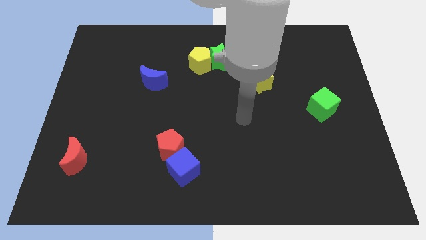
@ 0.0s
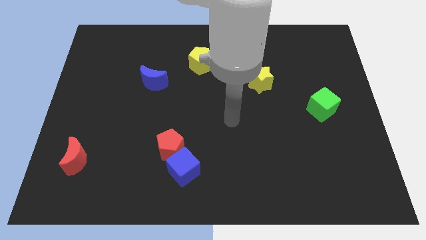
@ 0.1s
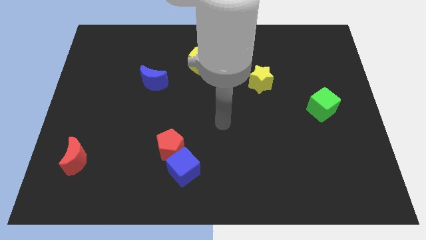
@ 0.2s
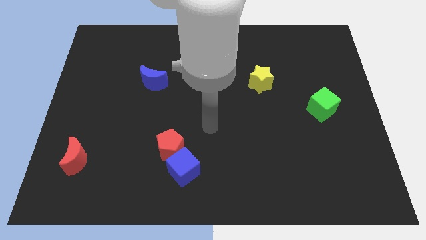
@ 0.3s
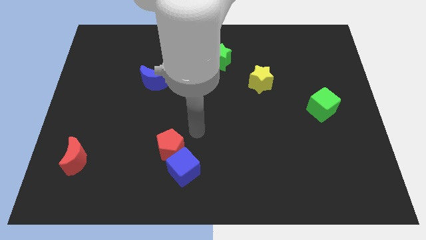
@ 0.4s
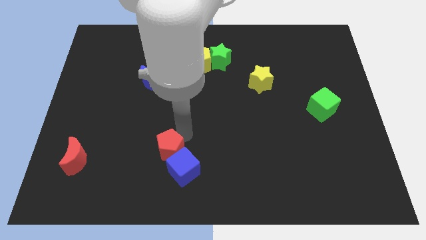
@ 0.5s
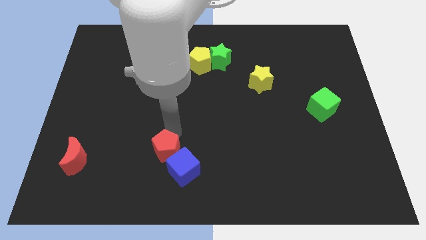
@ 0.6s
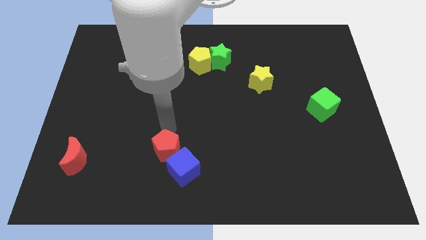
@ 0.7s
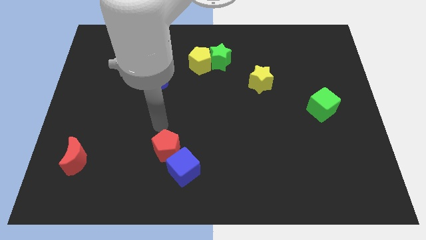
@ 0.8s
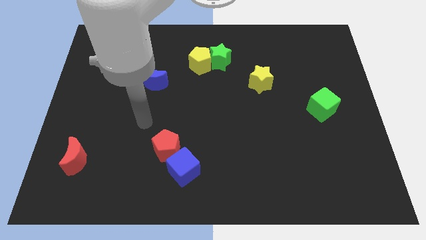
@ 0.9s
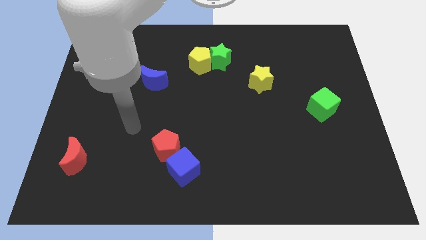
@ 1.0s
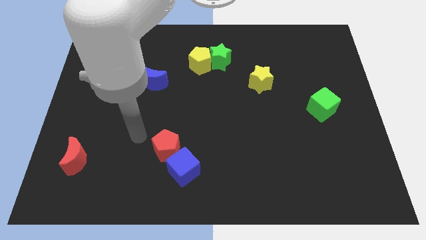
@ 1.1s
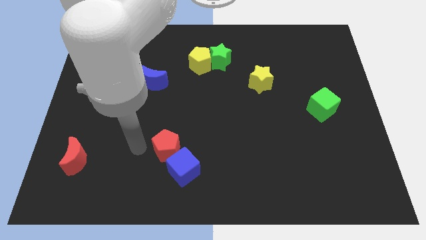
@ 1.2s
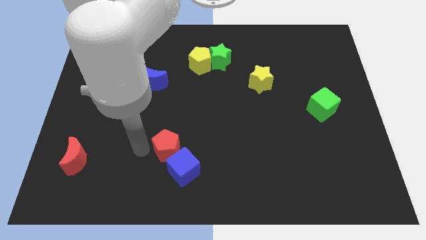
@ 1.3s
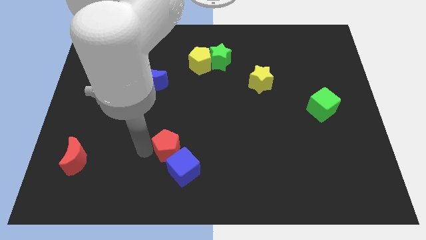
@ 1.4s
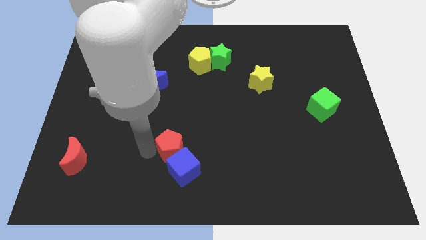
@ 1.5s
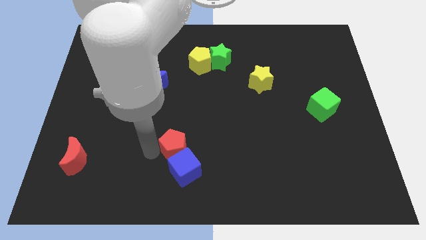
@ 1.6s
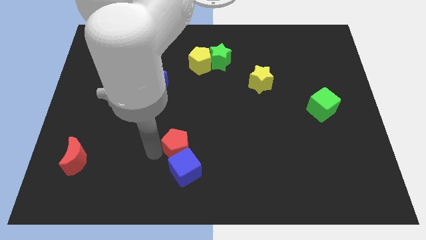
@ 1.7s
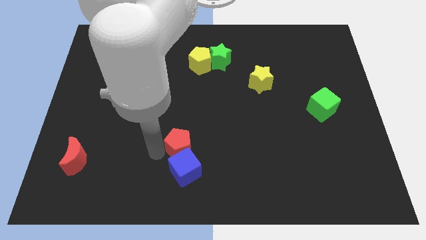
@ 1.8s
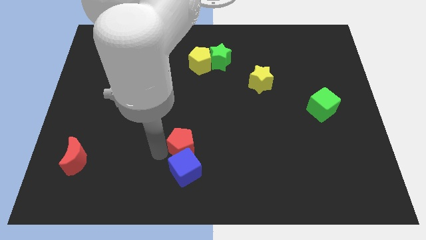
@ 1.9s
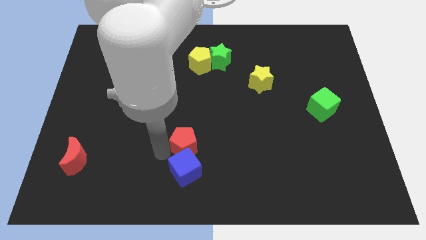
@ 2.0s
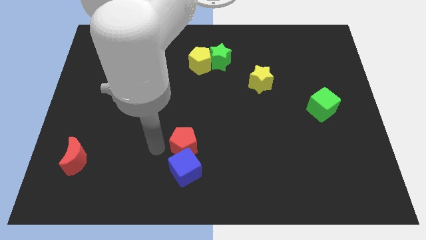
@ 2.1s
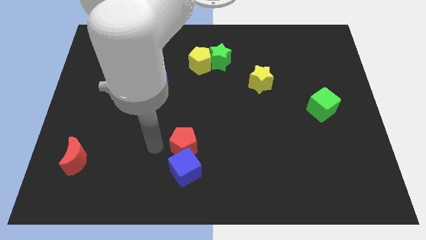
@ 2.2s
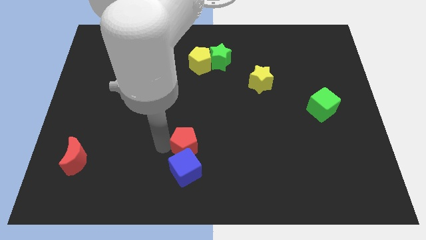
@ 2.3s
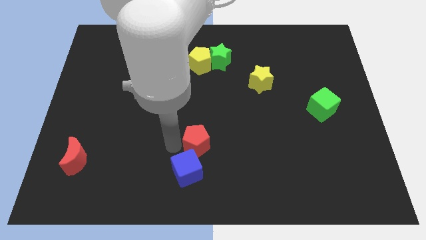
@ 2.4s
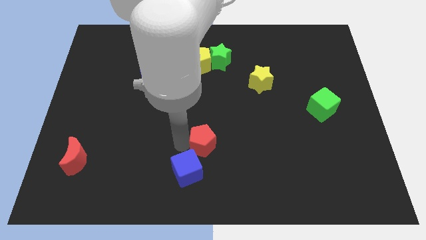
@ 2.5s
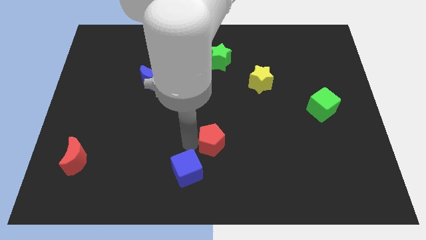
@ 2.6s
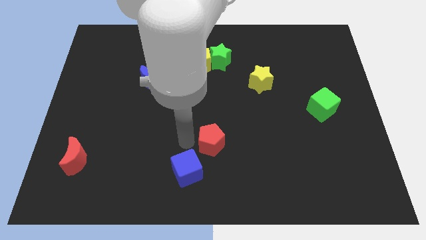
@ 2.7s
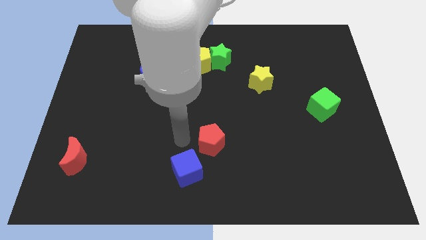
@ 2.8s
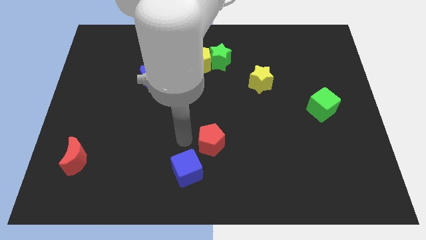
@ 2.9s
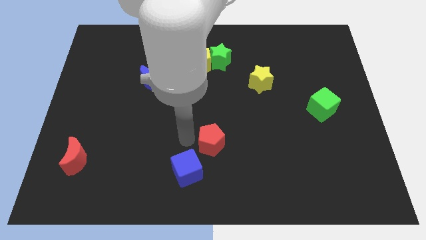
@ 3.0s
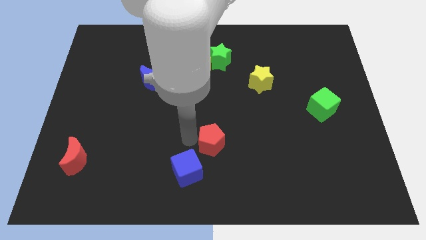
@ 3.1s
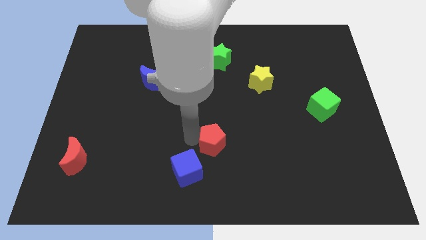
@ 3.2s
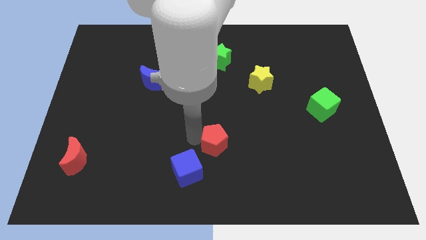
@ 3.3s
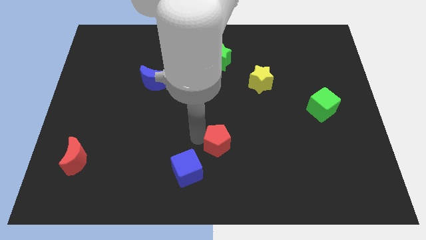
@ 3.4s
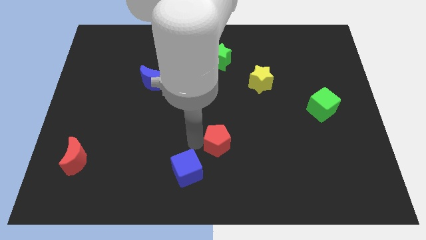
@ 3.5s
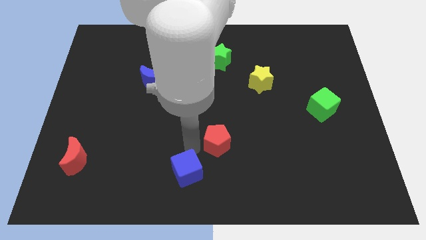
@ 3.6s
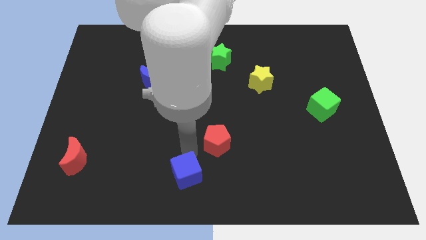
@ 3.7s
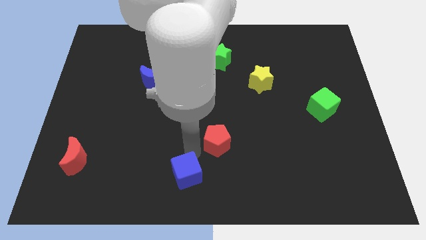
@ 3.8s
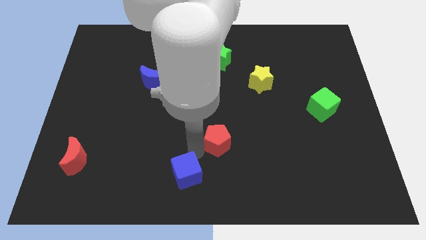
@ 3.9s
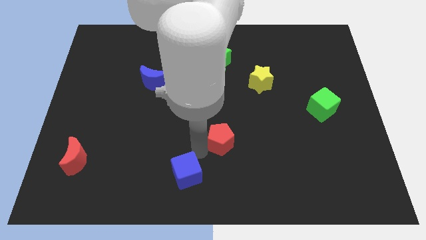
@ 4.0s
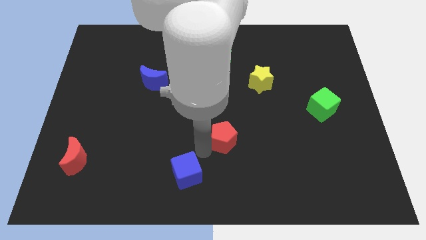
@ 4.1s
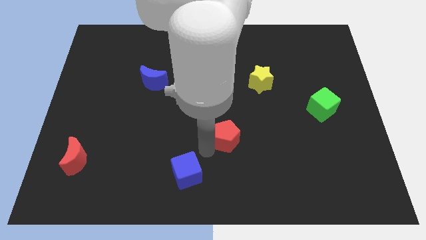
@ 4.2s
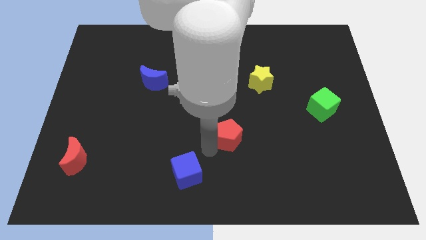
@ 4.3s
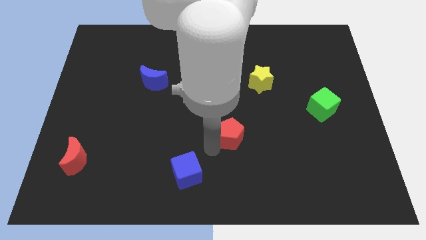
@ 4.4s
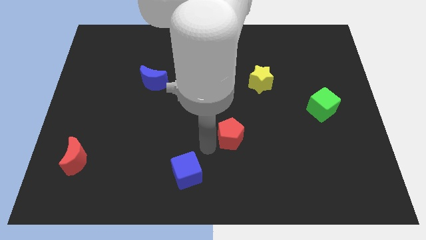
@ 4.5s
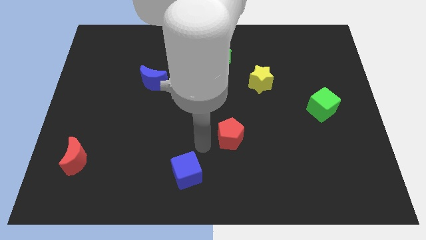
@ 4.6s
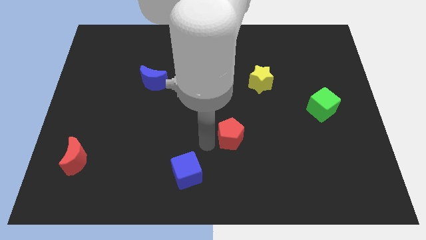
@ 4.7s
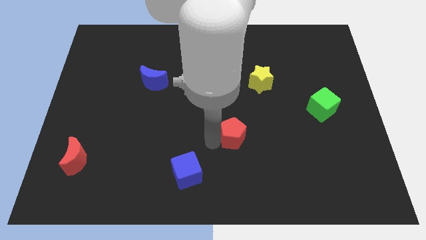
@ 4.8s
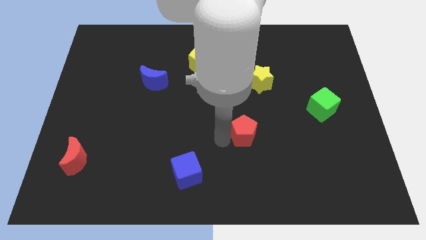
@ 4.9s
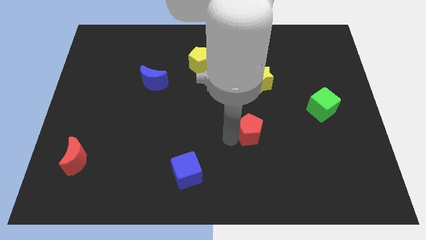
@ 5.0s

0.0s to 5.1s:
put the red pentagon to the bottom of the yellow star

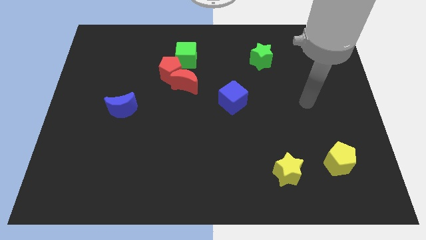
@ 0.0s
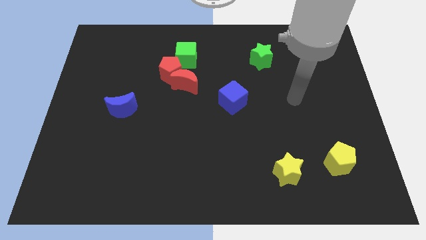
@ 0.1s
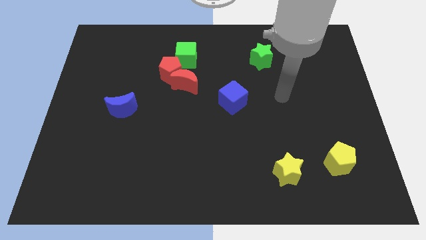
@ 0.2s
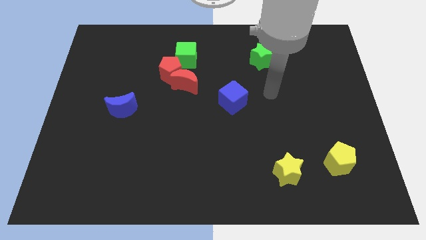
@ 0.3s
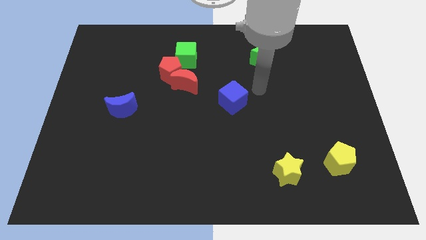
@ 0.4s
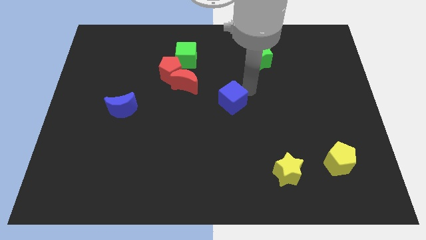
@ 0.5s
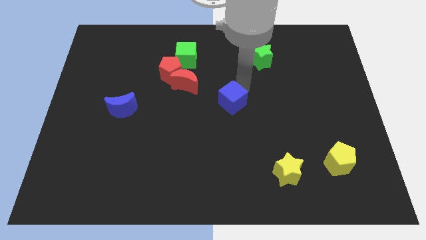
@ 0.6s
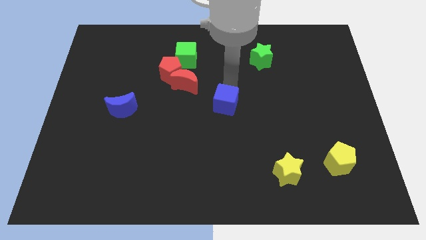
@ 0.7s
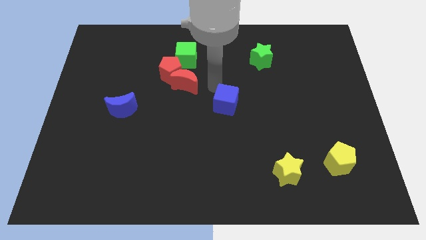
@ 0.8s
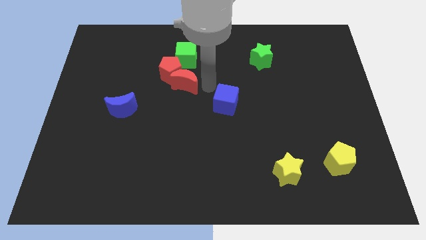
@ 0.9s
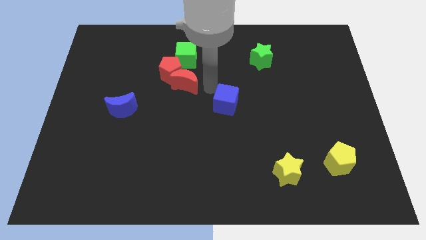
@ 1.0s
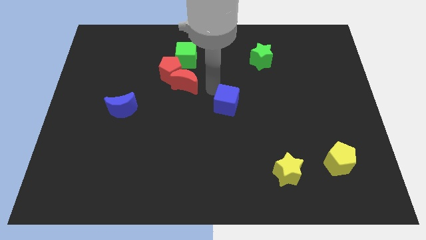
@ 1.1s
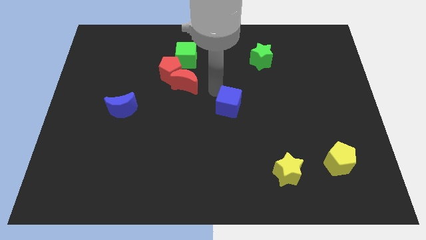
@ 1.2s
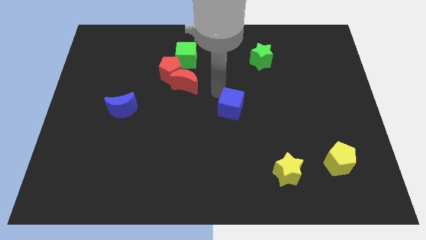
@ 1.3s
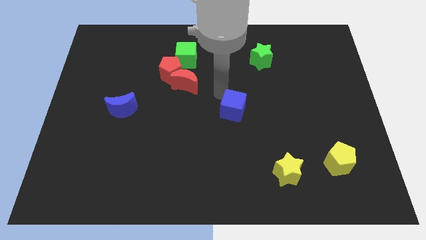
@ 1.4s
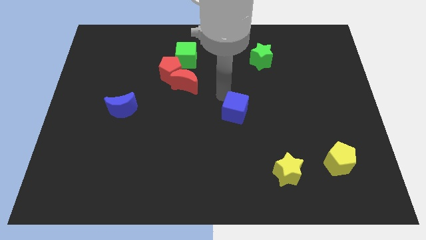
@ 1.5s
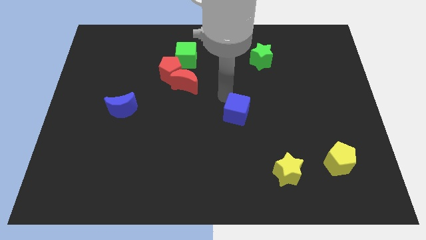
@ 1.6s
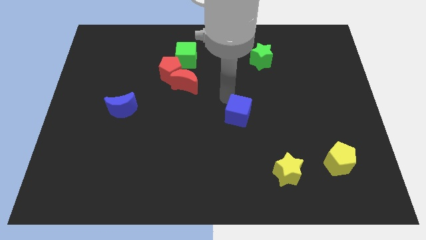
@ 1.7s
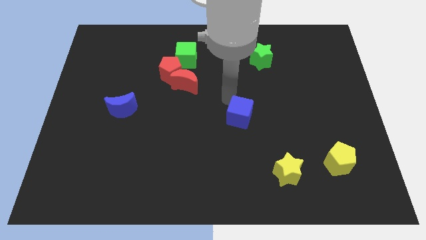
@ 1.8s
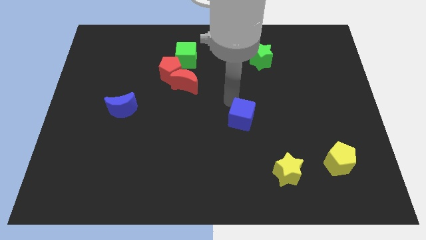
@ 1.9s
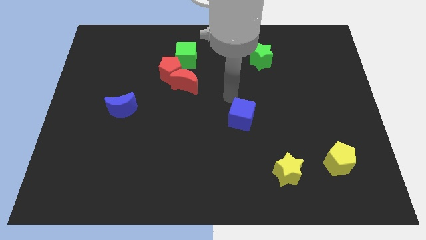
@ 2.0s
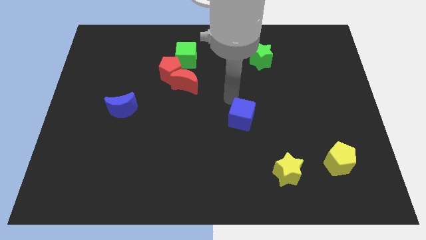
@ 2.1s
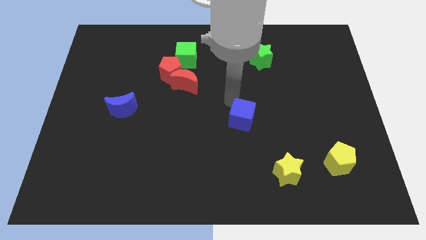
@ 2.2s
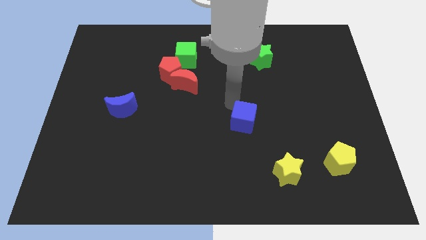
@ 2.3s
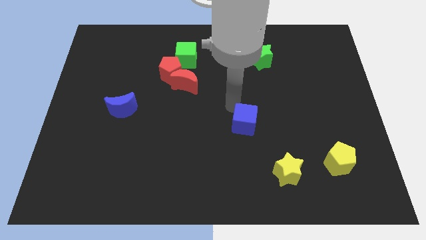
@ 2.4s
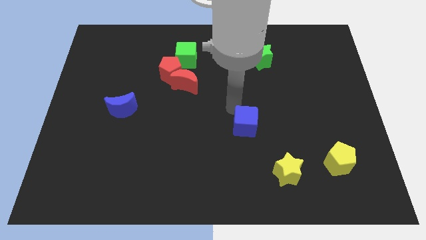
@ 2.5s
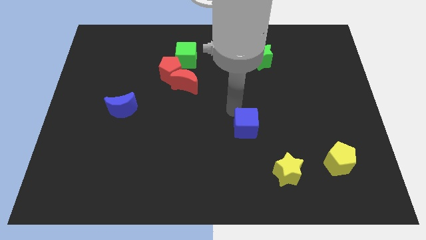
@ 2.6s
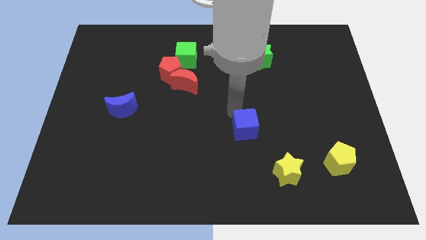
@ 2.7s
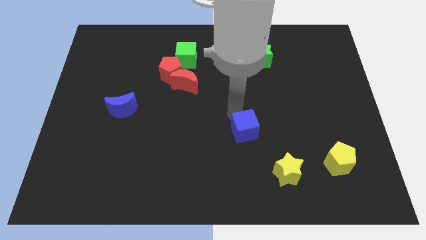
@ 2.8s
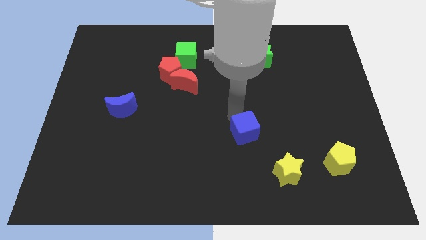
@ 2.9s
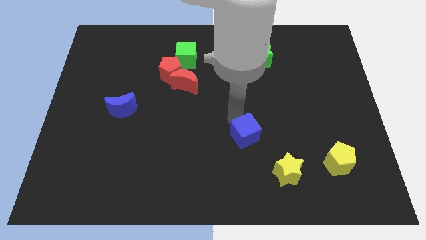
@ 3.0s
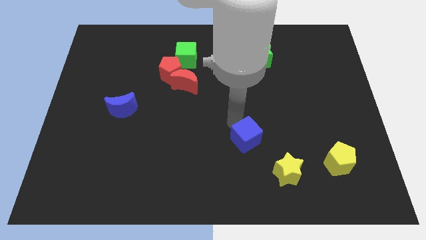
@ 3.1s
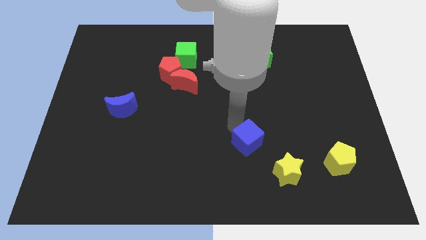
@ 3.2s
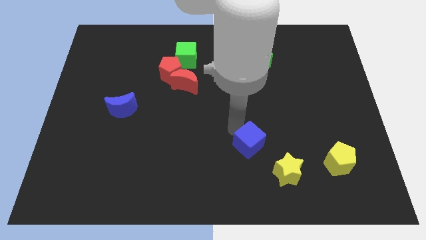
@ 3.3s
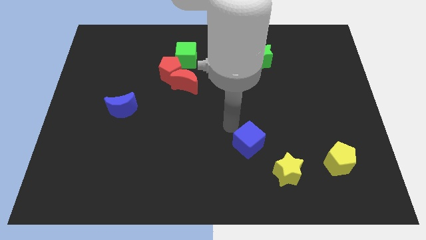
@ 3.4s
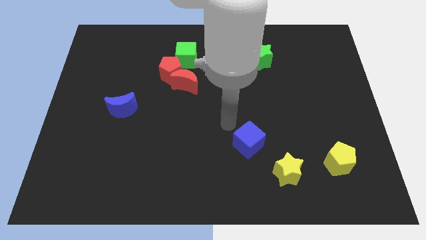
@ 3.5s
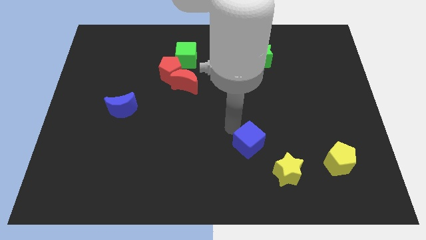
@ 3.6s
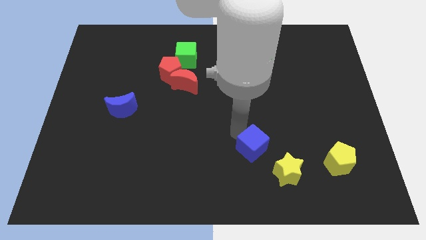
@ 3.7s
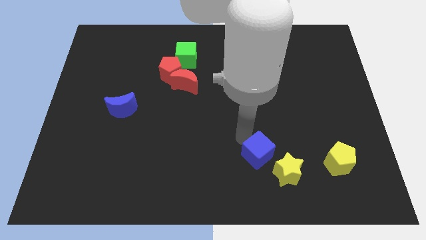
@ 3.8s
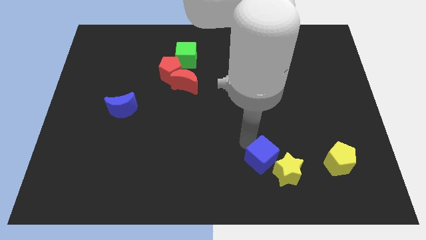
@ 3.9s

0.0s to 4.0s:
slide the blue cube to the left of the yellow pentagon
